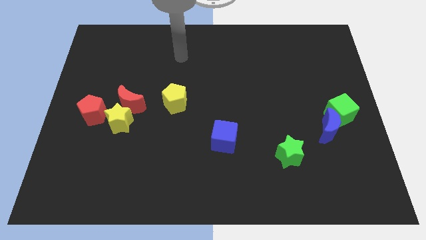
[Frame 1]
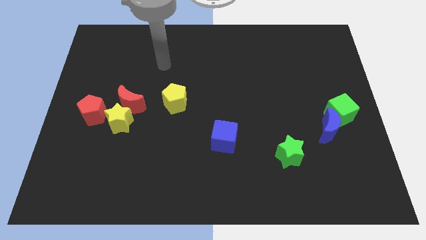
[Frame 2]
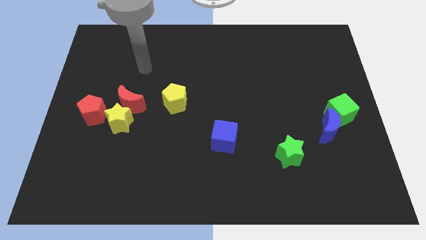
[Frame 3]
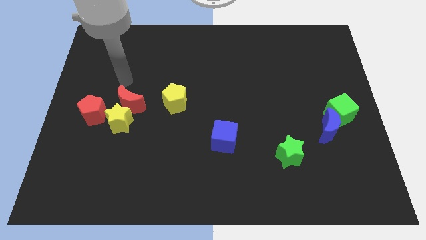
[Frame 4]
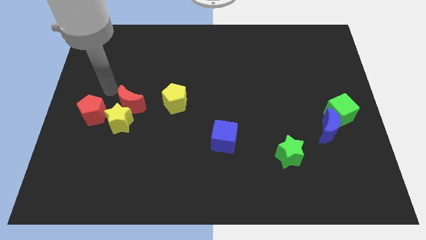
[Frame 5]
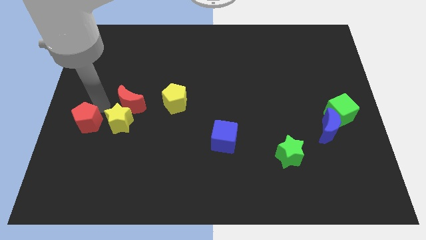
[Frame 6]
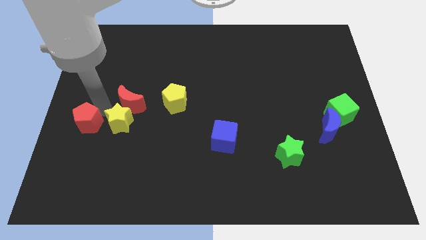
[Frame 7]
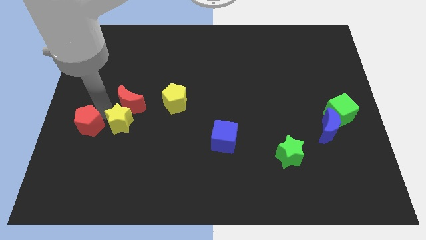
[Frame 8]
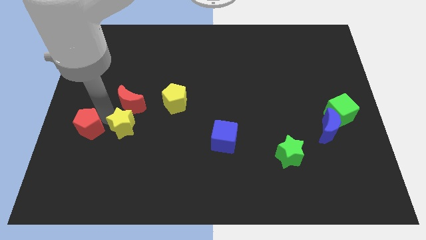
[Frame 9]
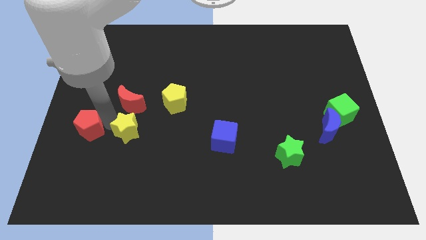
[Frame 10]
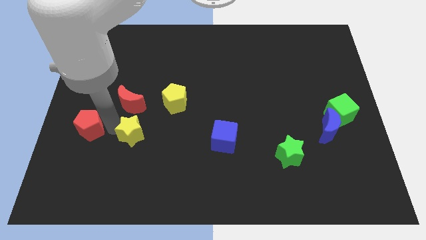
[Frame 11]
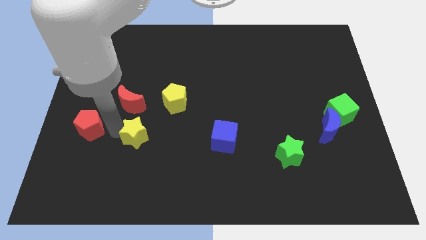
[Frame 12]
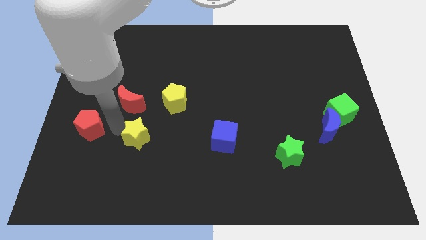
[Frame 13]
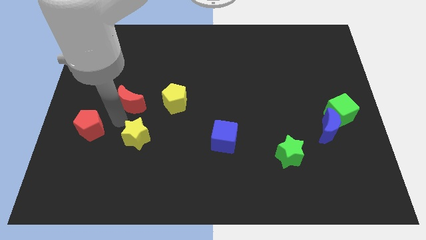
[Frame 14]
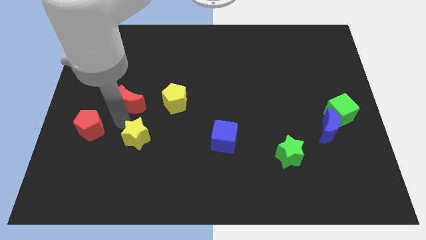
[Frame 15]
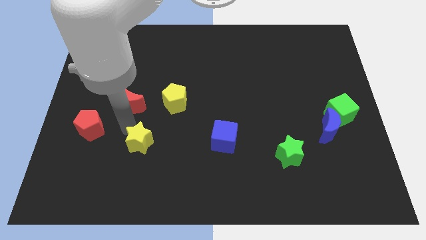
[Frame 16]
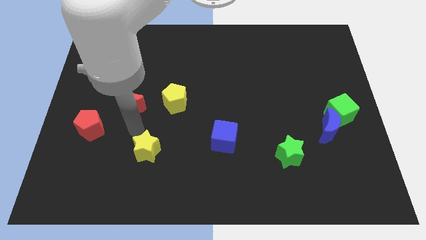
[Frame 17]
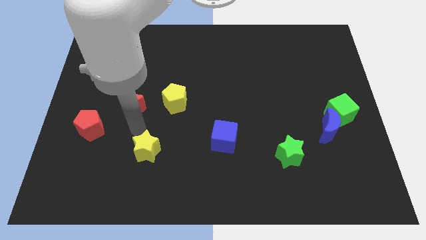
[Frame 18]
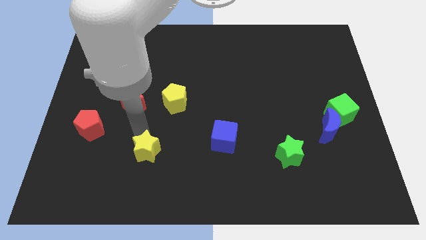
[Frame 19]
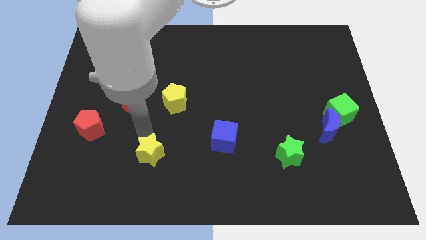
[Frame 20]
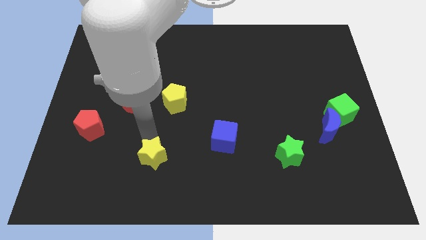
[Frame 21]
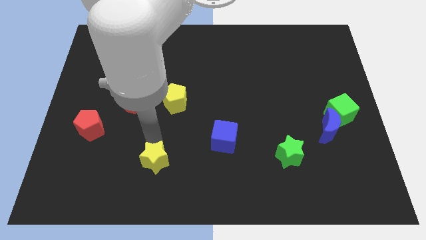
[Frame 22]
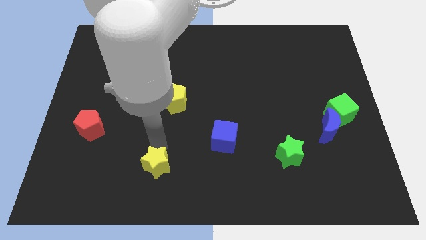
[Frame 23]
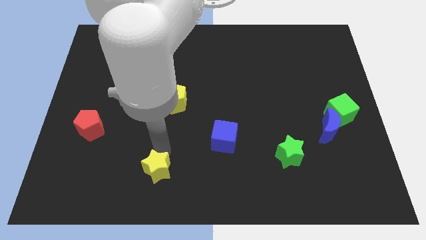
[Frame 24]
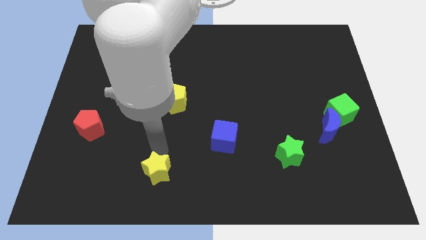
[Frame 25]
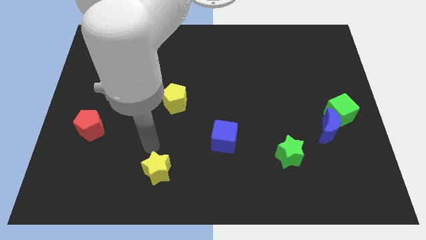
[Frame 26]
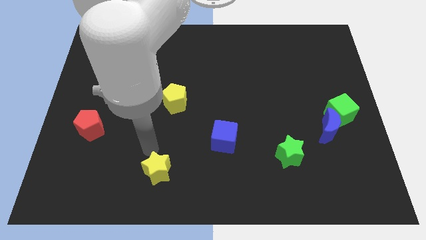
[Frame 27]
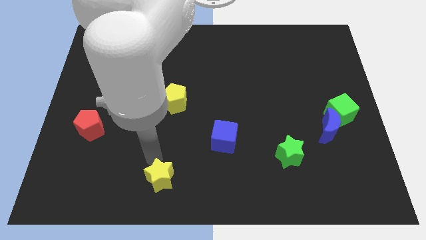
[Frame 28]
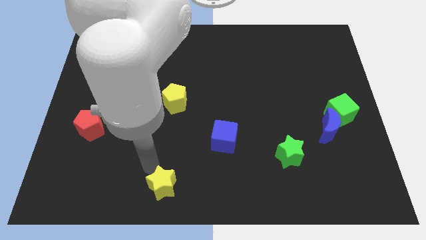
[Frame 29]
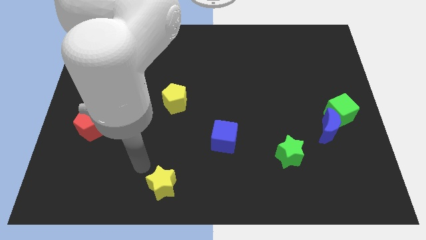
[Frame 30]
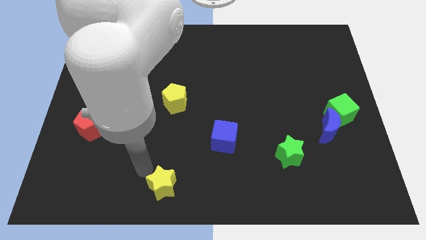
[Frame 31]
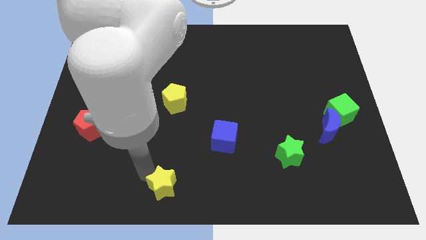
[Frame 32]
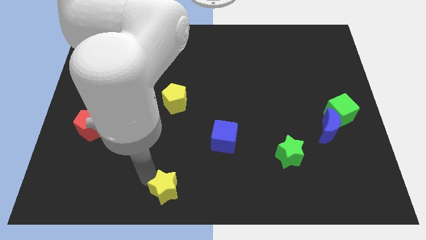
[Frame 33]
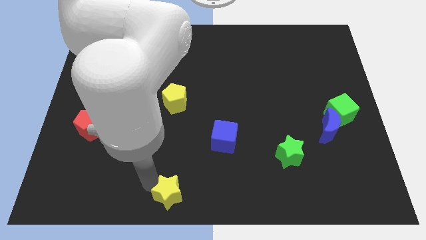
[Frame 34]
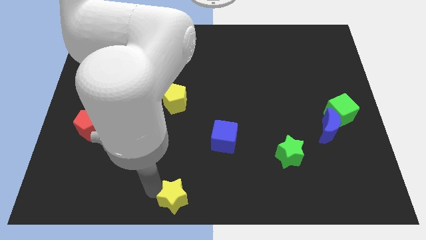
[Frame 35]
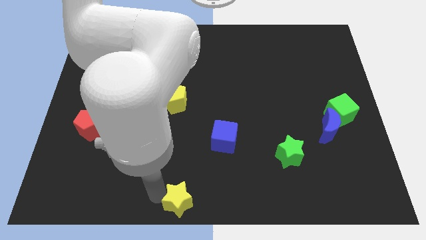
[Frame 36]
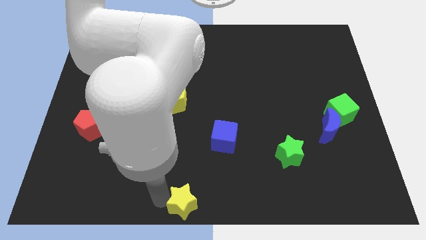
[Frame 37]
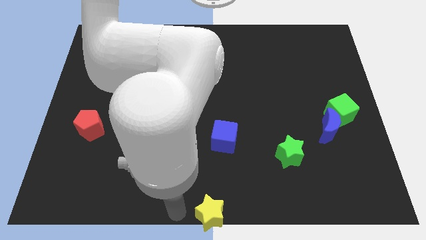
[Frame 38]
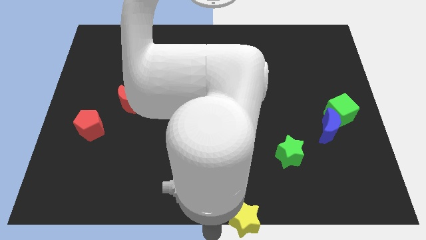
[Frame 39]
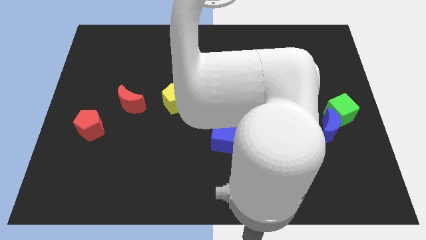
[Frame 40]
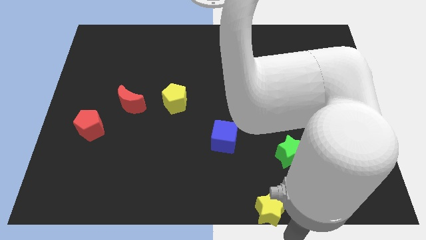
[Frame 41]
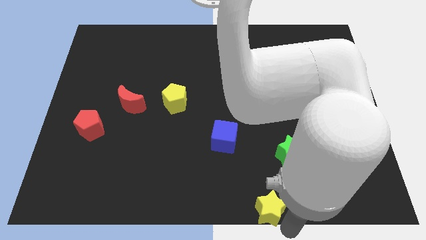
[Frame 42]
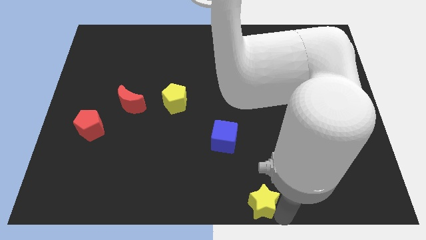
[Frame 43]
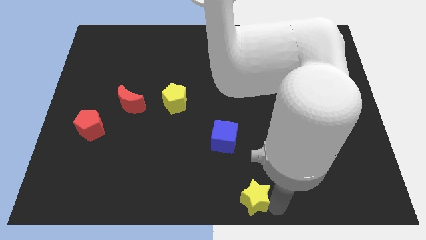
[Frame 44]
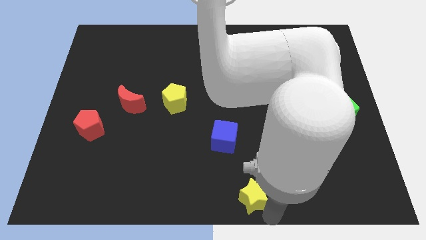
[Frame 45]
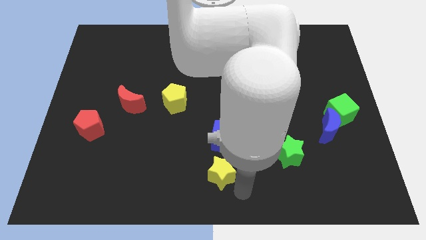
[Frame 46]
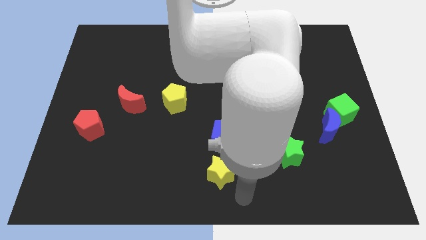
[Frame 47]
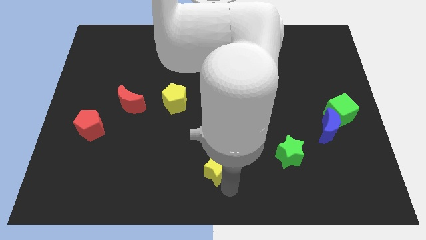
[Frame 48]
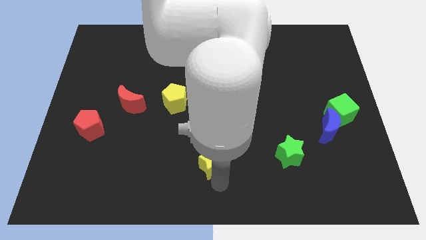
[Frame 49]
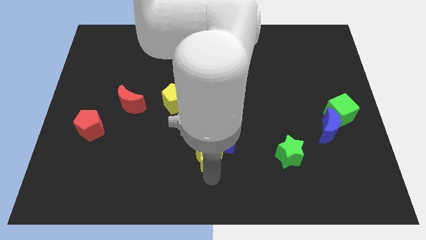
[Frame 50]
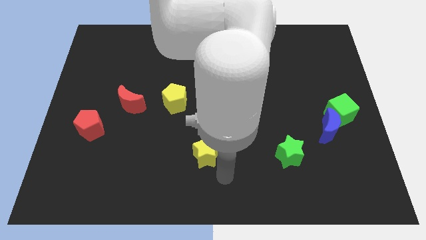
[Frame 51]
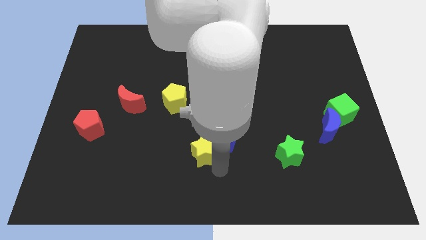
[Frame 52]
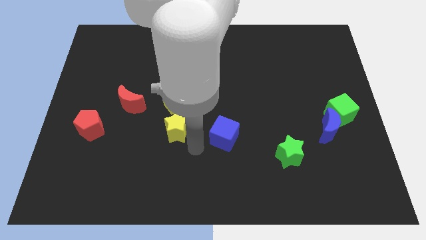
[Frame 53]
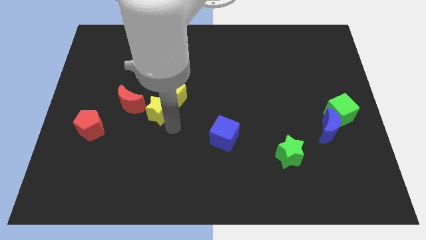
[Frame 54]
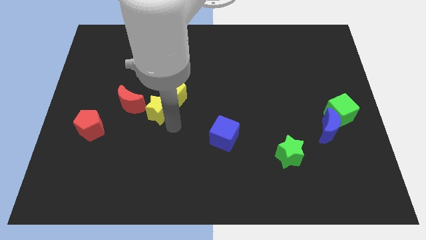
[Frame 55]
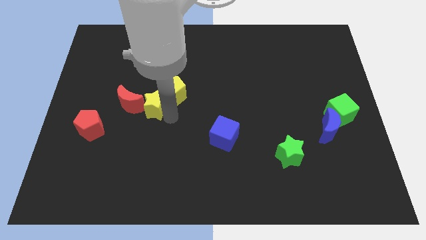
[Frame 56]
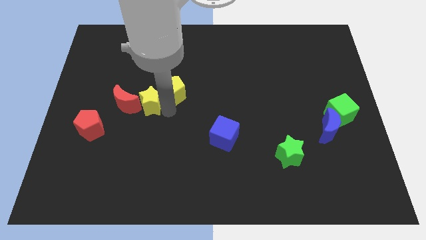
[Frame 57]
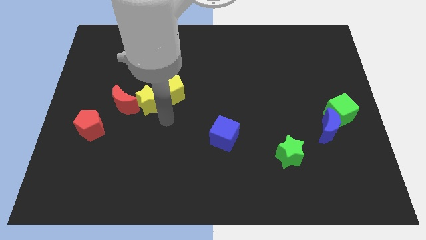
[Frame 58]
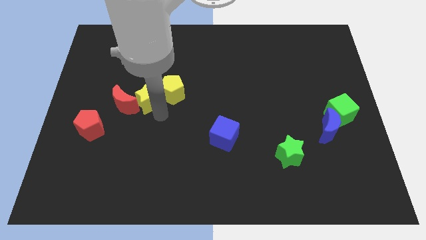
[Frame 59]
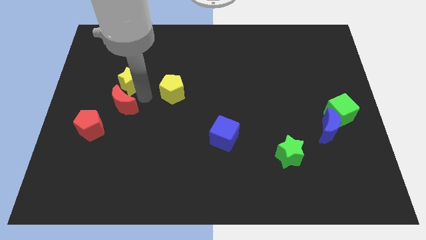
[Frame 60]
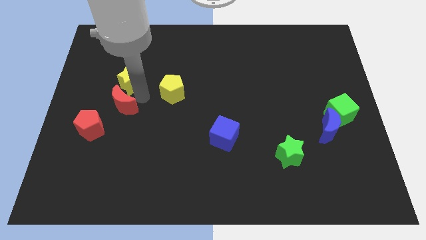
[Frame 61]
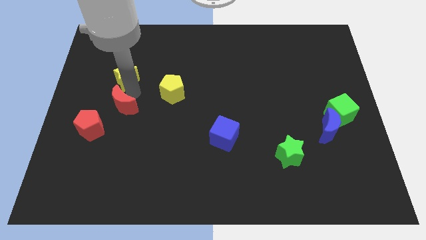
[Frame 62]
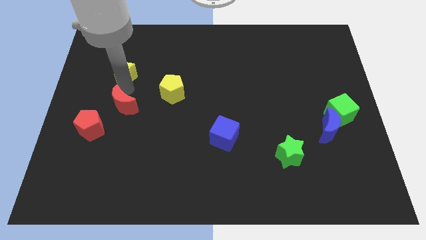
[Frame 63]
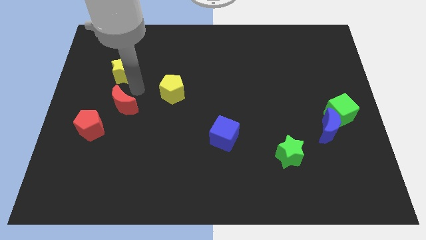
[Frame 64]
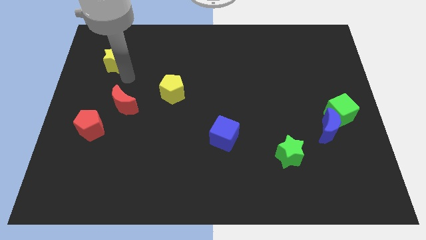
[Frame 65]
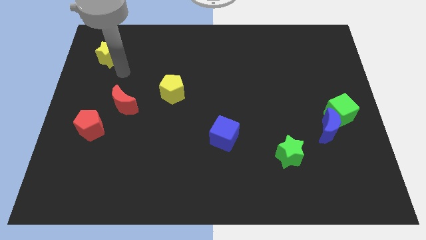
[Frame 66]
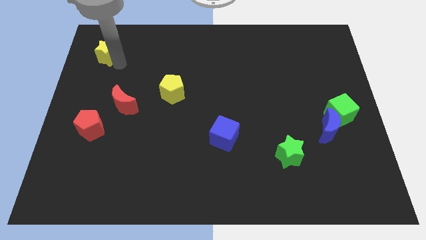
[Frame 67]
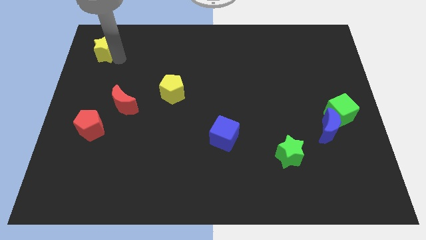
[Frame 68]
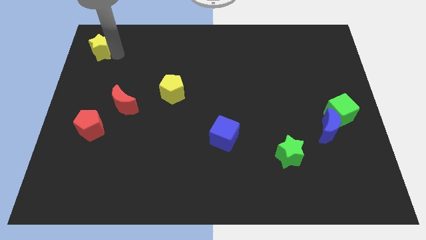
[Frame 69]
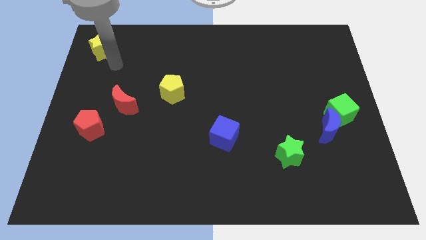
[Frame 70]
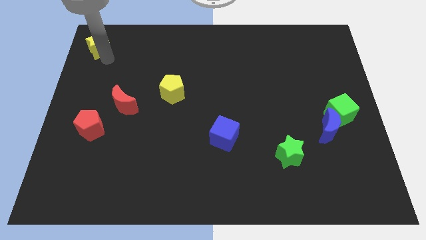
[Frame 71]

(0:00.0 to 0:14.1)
put the yellow star to the top left

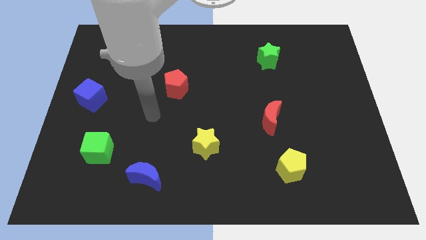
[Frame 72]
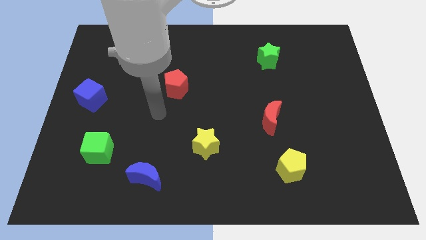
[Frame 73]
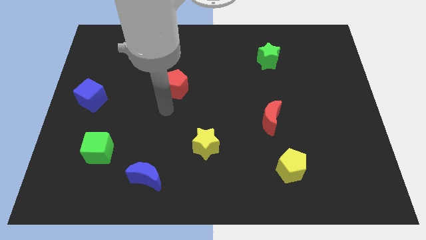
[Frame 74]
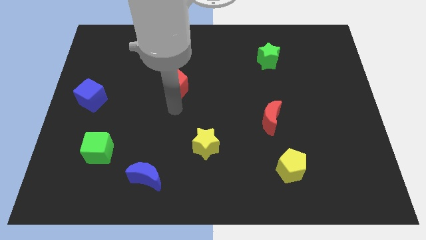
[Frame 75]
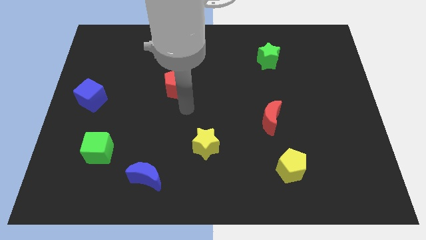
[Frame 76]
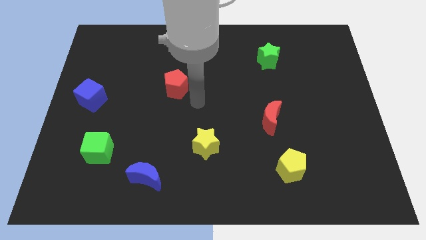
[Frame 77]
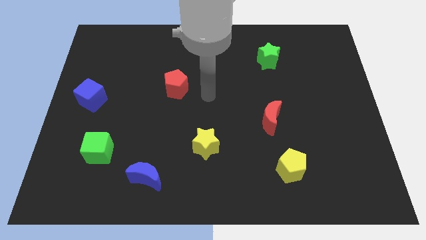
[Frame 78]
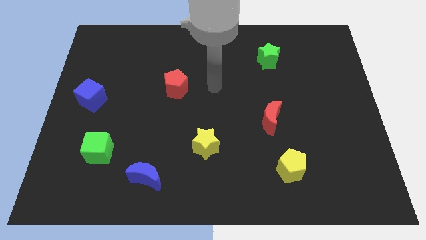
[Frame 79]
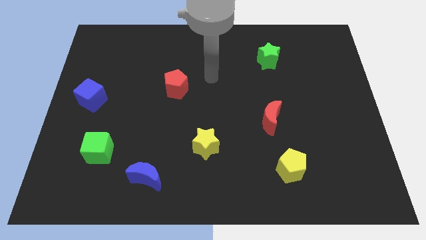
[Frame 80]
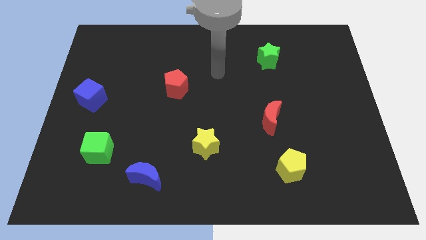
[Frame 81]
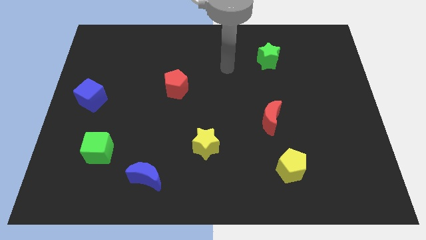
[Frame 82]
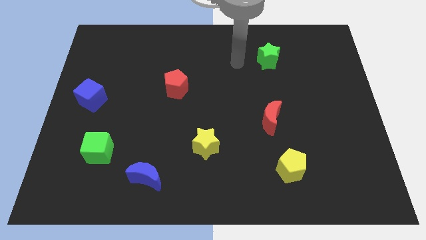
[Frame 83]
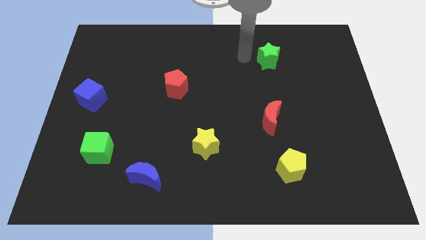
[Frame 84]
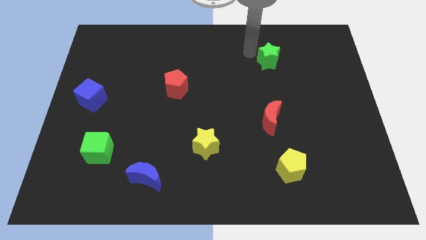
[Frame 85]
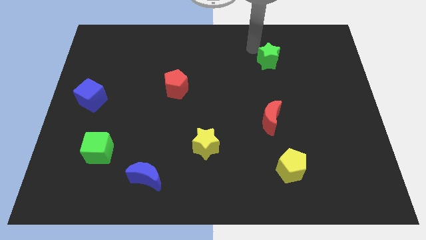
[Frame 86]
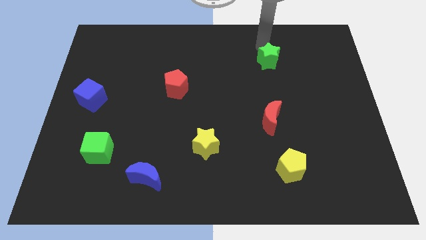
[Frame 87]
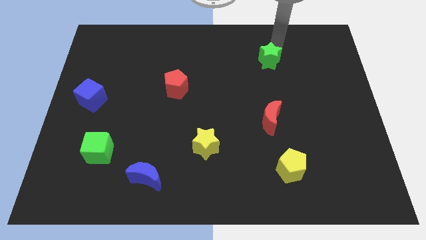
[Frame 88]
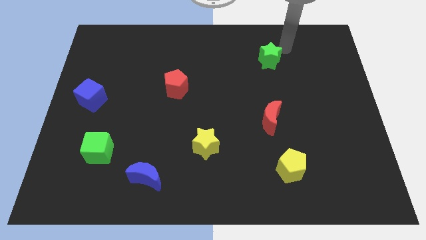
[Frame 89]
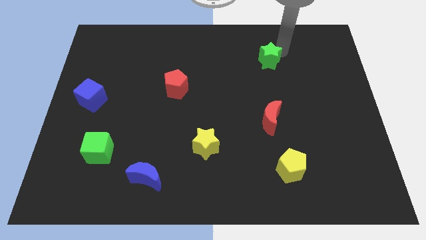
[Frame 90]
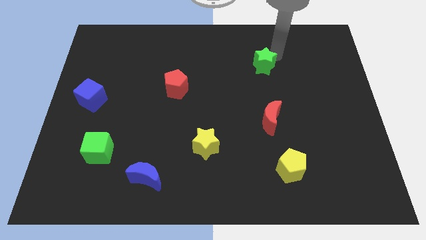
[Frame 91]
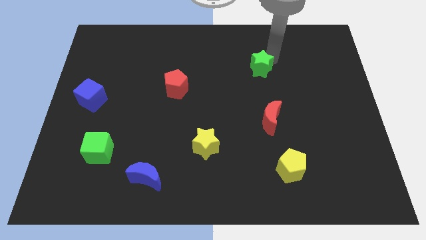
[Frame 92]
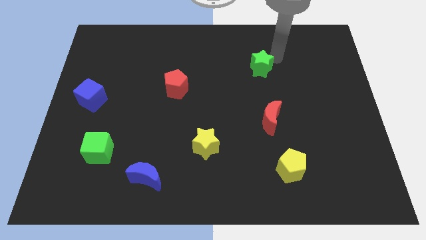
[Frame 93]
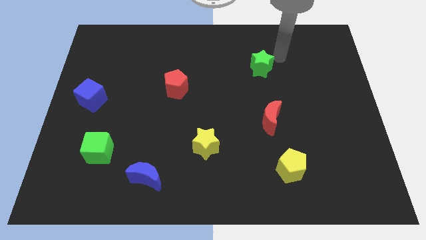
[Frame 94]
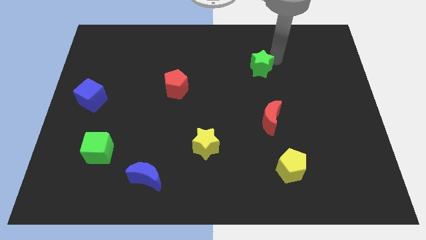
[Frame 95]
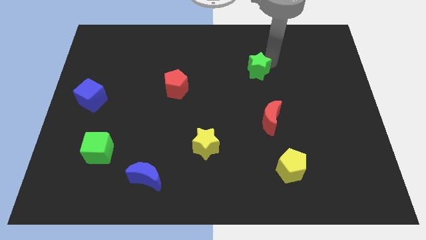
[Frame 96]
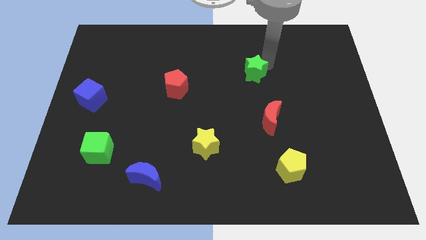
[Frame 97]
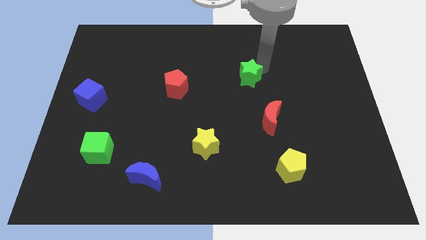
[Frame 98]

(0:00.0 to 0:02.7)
put the green star to the middle of the board
